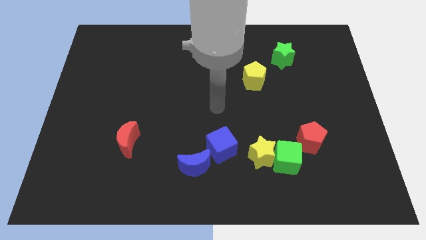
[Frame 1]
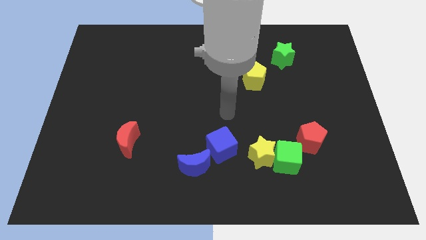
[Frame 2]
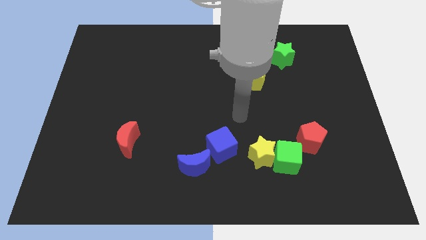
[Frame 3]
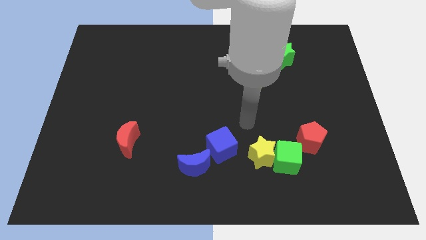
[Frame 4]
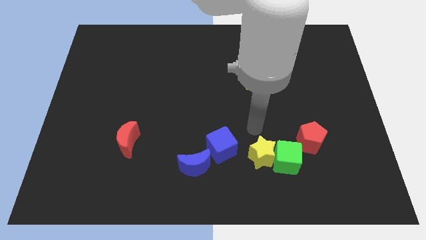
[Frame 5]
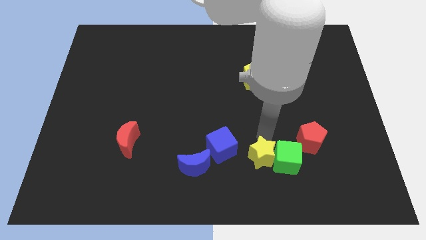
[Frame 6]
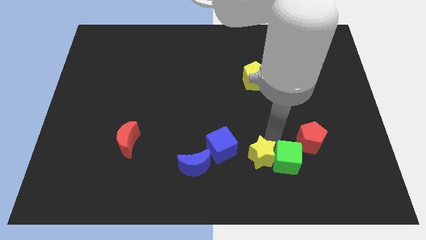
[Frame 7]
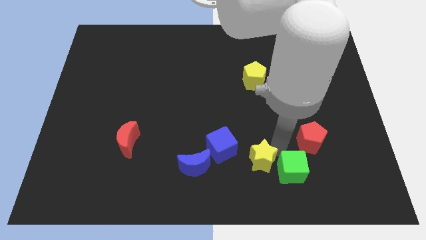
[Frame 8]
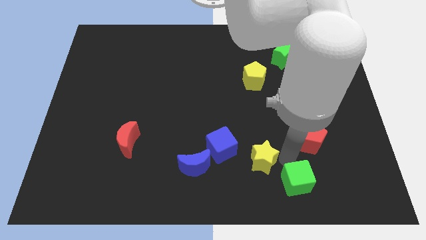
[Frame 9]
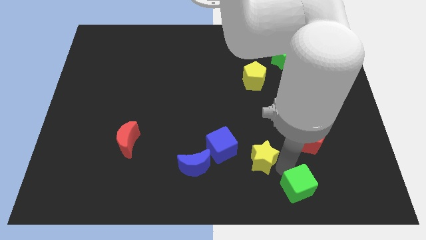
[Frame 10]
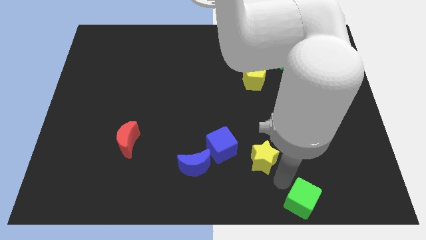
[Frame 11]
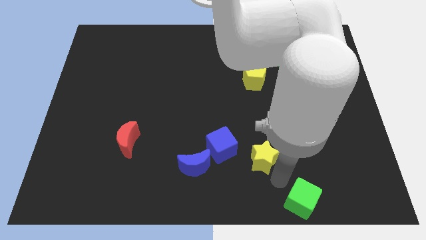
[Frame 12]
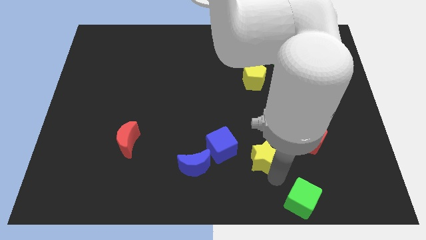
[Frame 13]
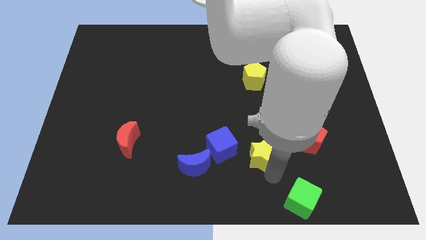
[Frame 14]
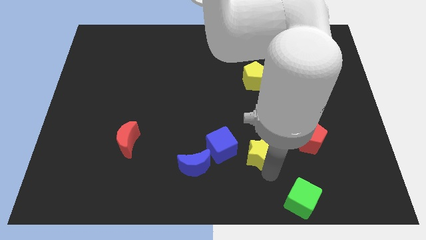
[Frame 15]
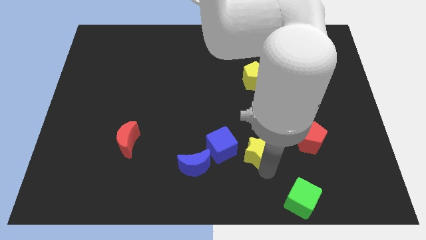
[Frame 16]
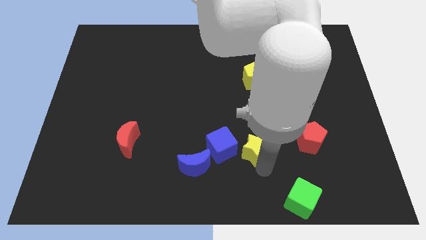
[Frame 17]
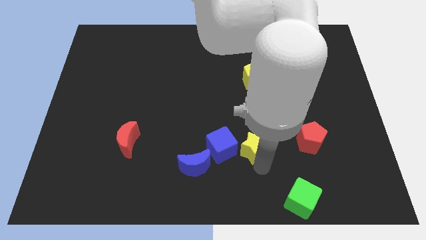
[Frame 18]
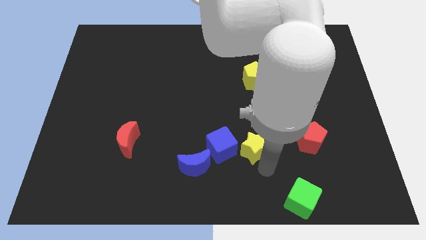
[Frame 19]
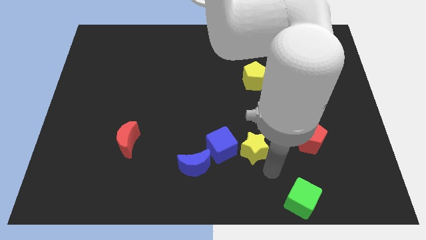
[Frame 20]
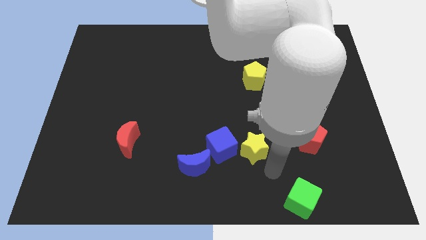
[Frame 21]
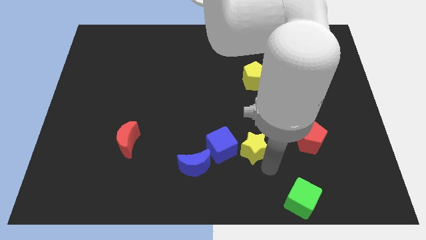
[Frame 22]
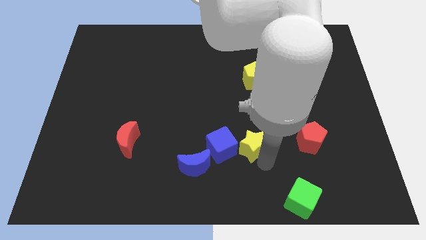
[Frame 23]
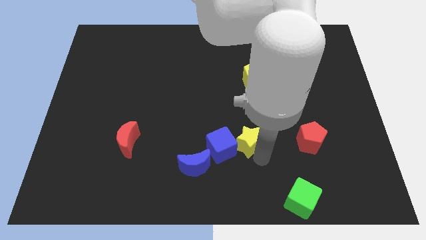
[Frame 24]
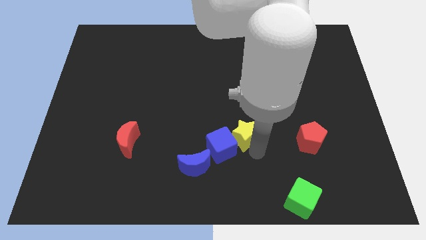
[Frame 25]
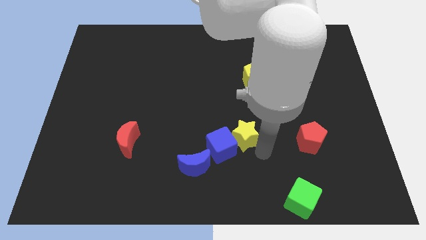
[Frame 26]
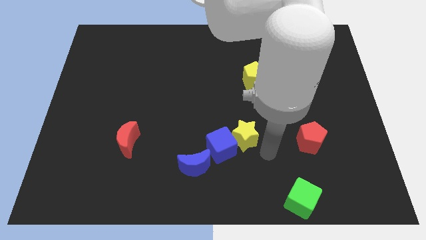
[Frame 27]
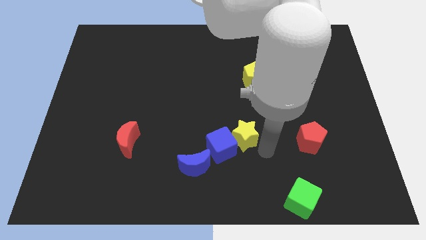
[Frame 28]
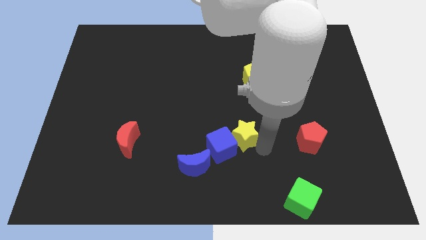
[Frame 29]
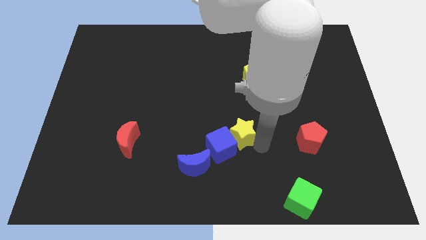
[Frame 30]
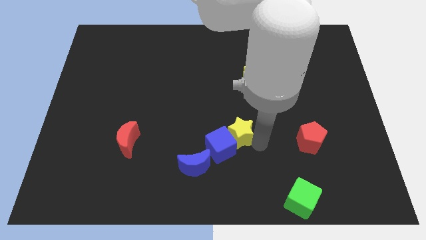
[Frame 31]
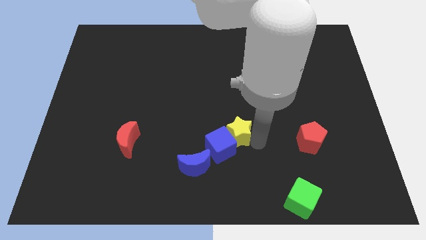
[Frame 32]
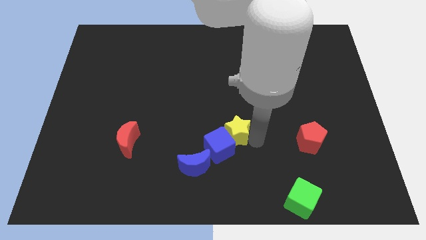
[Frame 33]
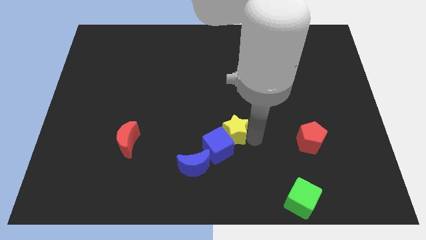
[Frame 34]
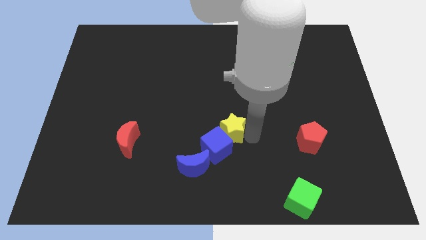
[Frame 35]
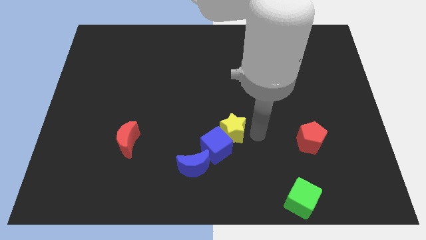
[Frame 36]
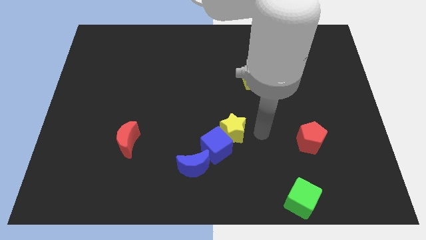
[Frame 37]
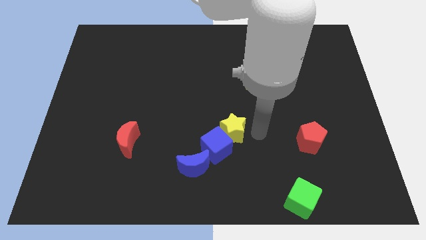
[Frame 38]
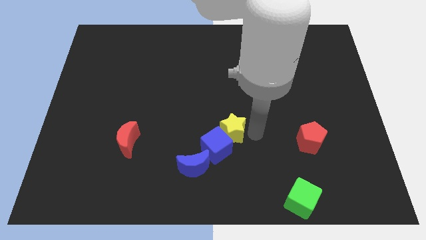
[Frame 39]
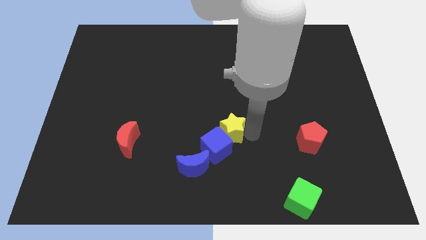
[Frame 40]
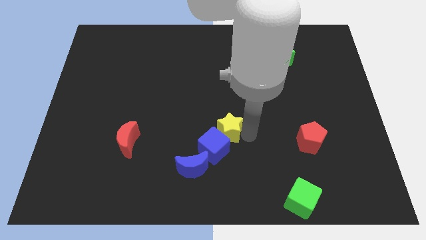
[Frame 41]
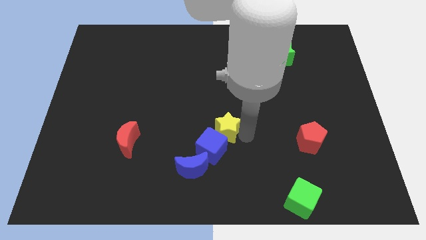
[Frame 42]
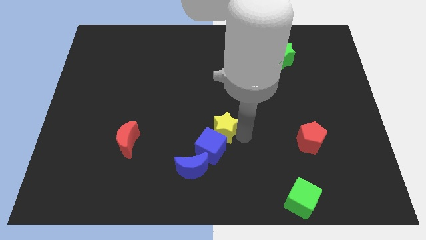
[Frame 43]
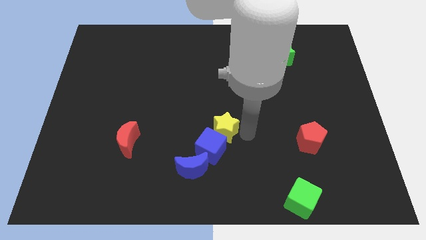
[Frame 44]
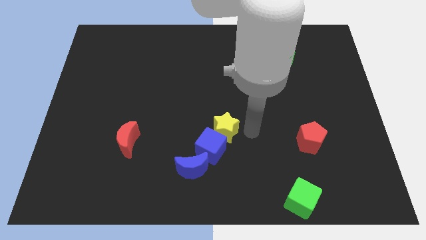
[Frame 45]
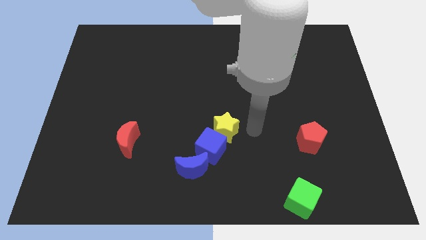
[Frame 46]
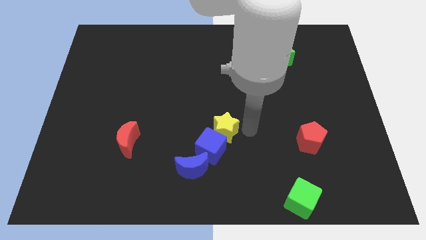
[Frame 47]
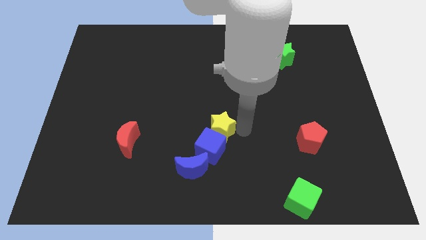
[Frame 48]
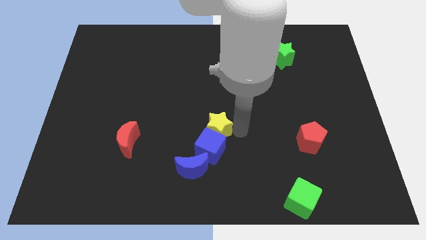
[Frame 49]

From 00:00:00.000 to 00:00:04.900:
slightly move the yellow star to the left

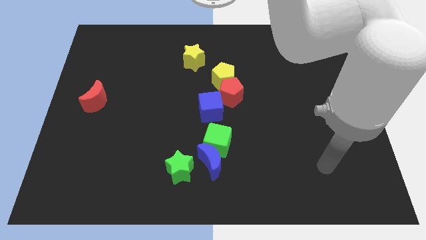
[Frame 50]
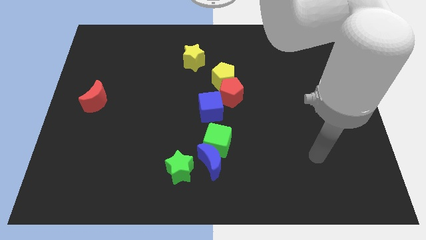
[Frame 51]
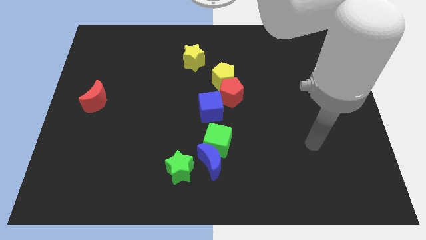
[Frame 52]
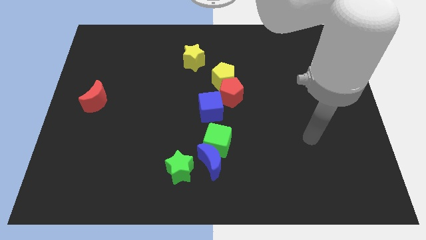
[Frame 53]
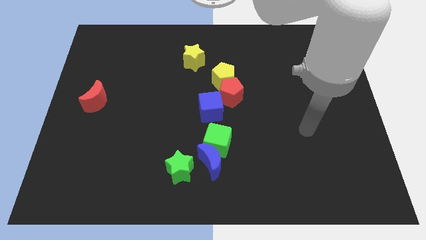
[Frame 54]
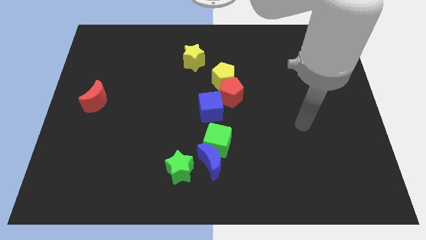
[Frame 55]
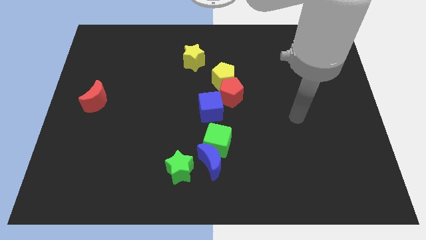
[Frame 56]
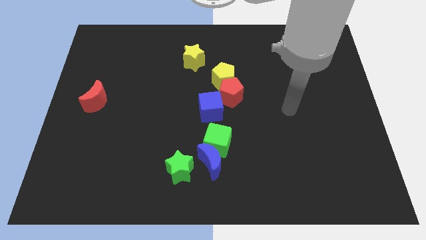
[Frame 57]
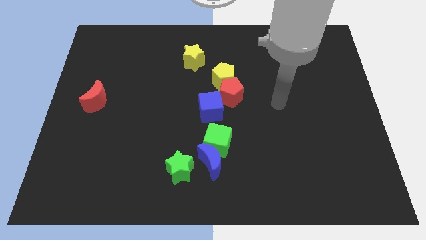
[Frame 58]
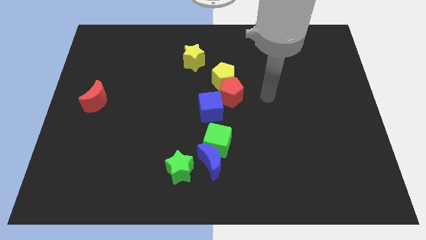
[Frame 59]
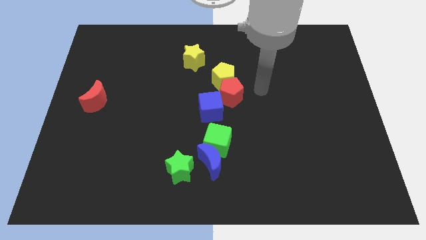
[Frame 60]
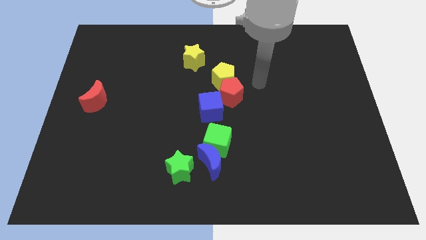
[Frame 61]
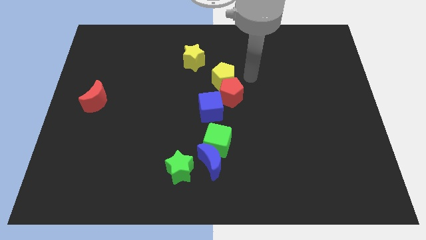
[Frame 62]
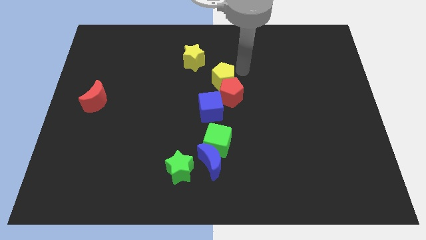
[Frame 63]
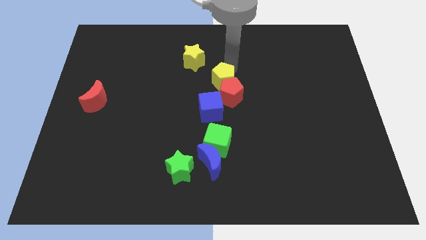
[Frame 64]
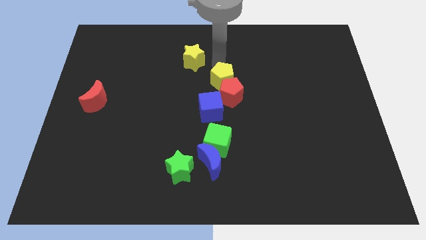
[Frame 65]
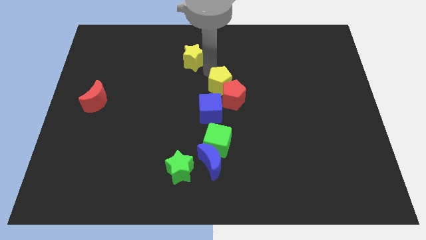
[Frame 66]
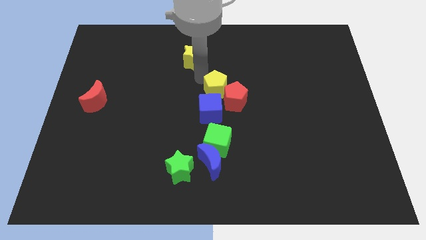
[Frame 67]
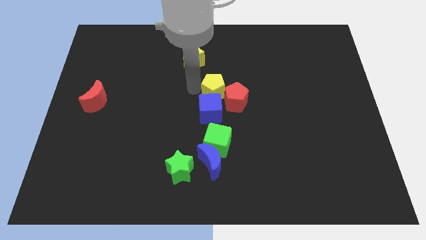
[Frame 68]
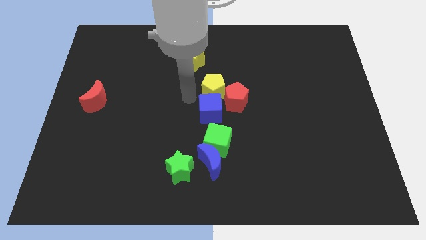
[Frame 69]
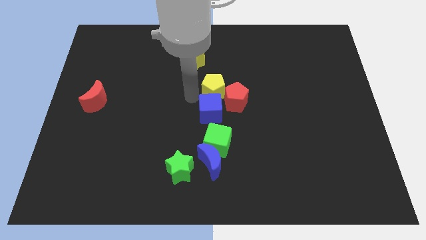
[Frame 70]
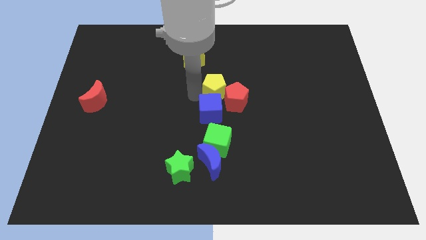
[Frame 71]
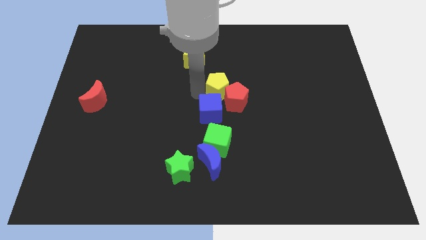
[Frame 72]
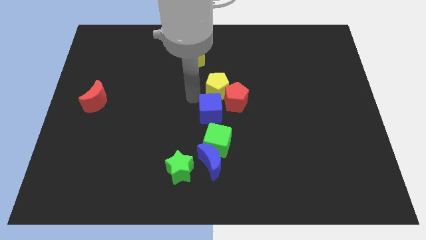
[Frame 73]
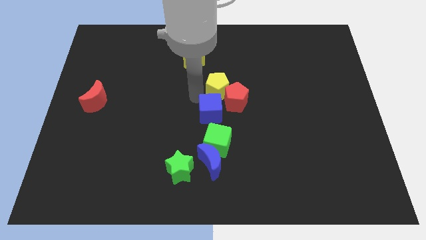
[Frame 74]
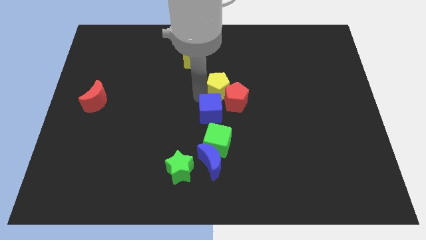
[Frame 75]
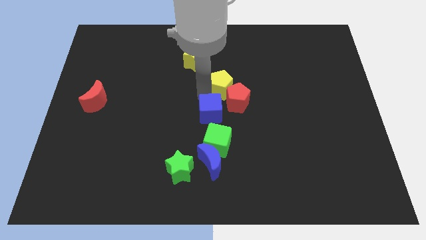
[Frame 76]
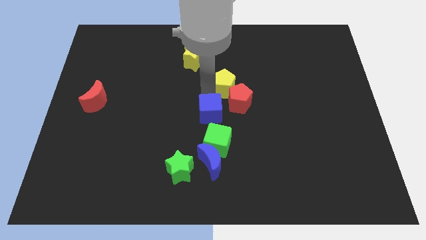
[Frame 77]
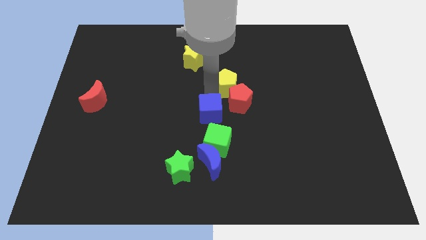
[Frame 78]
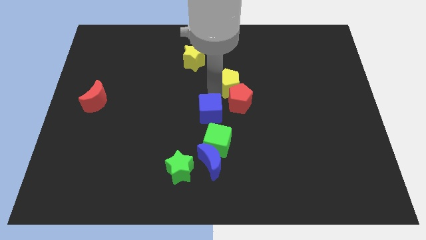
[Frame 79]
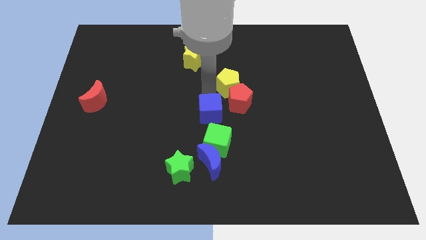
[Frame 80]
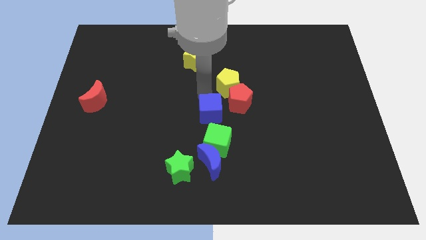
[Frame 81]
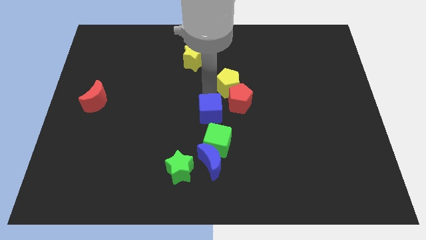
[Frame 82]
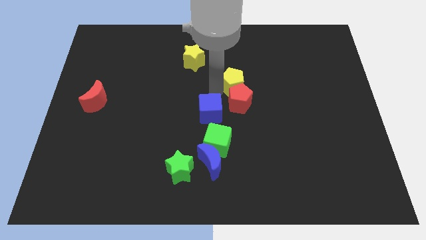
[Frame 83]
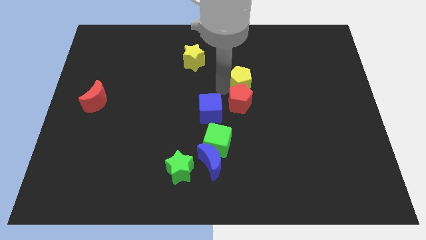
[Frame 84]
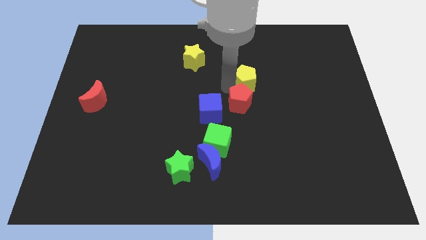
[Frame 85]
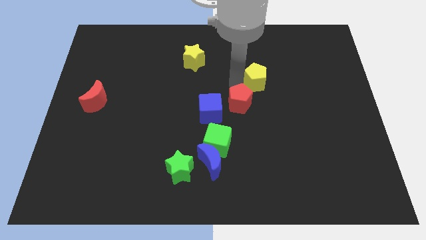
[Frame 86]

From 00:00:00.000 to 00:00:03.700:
push the yellow pentagon slightly to the right
